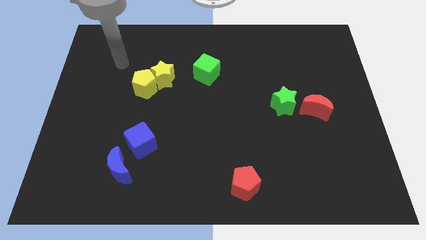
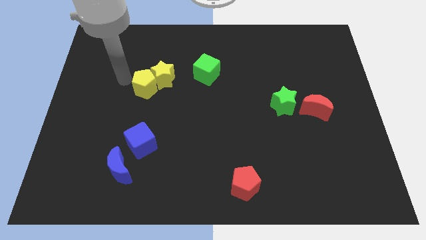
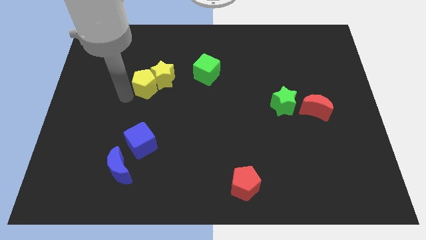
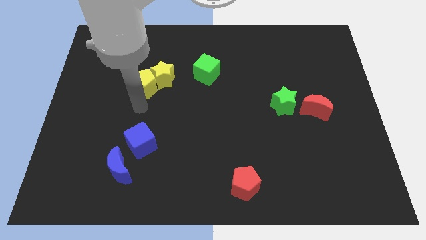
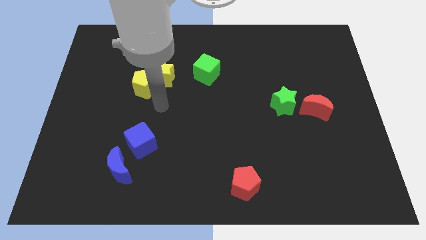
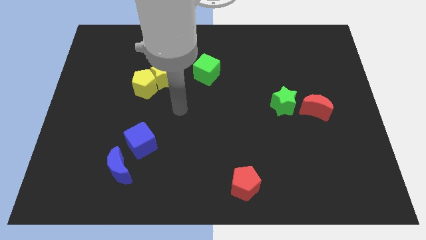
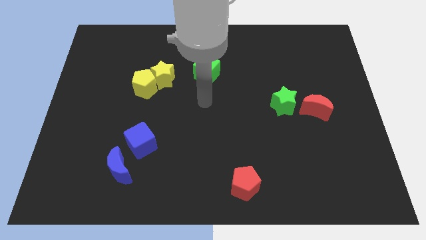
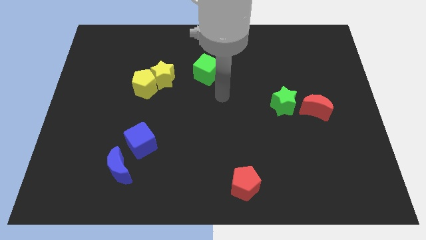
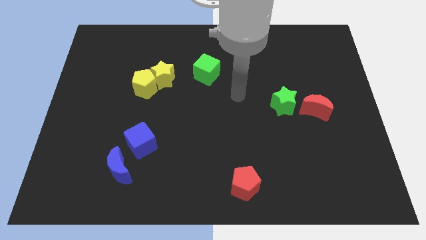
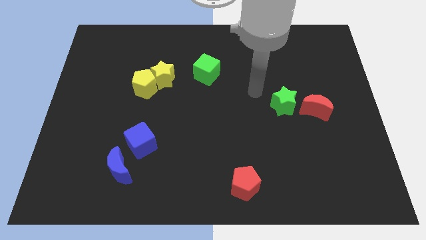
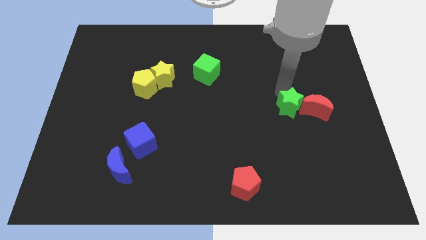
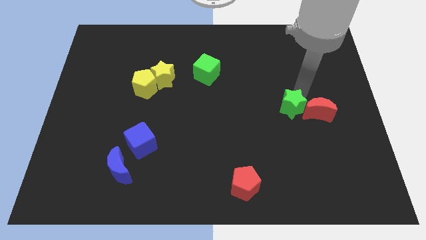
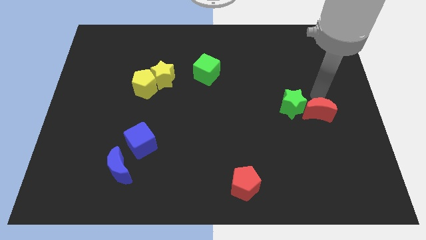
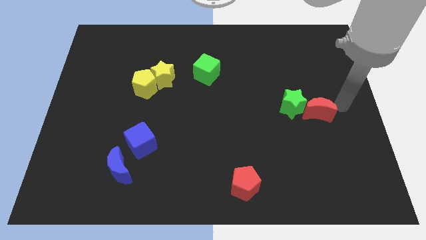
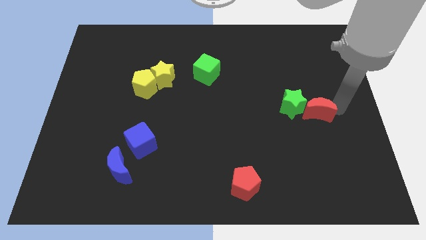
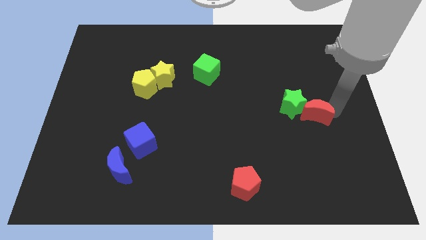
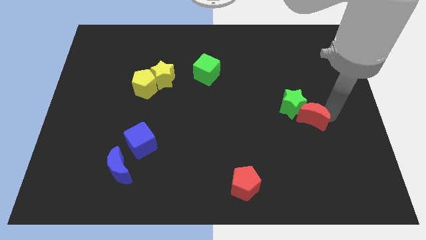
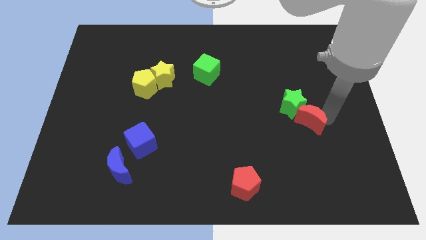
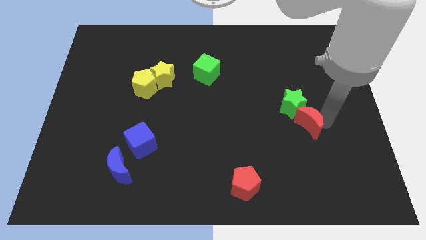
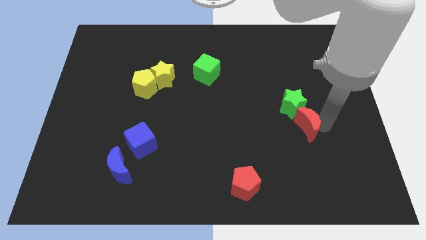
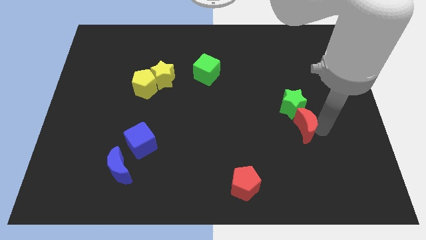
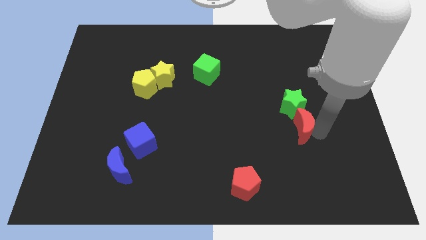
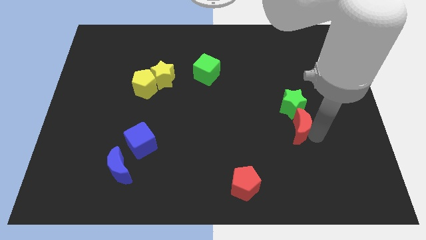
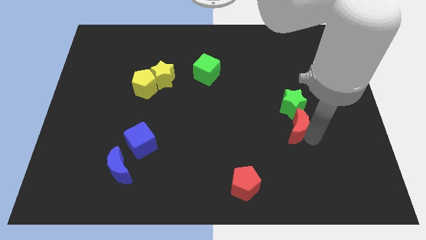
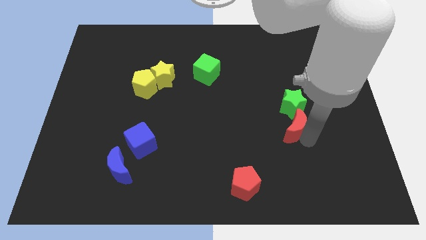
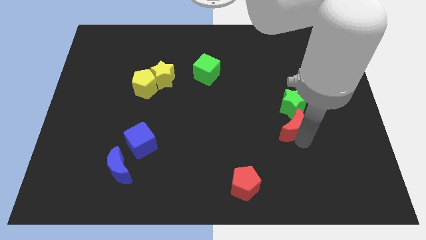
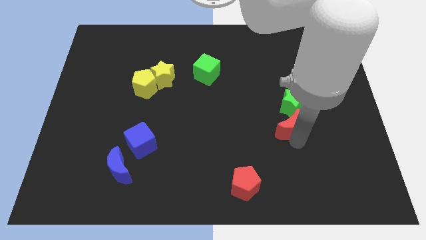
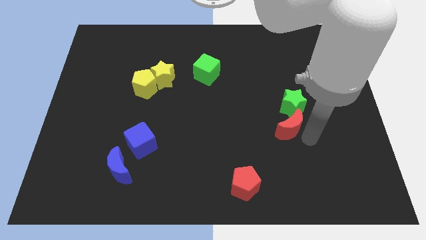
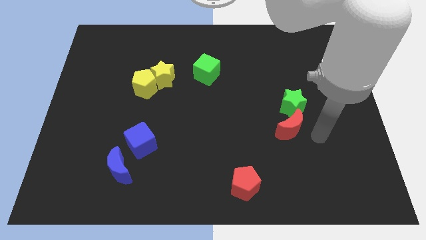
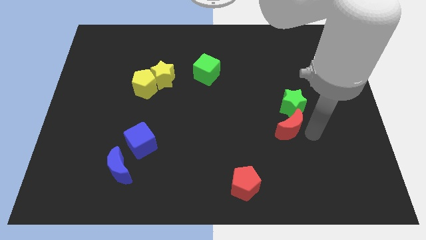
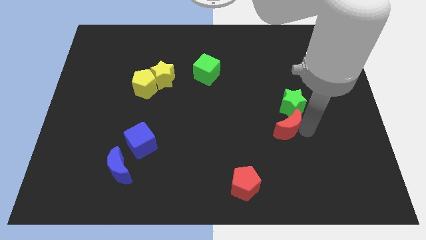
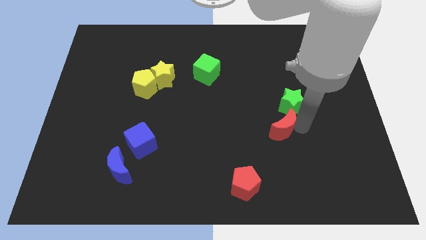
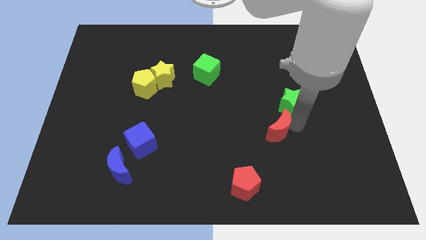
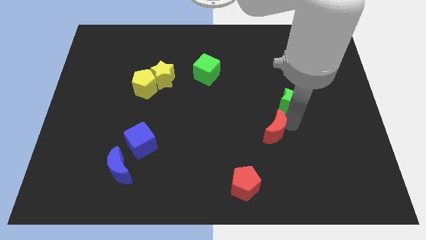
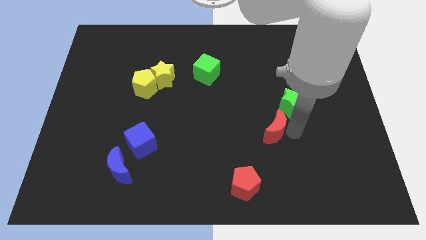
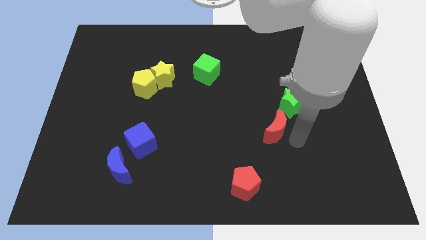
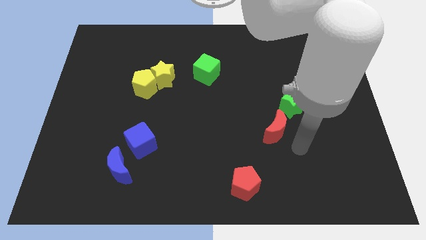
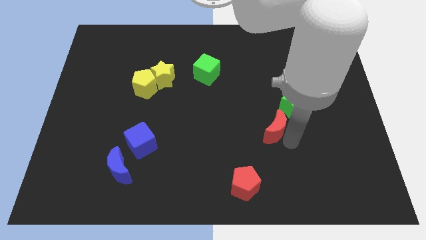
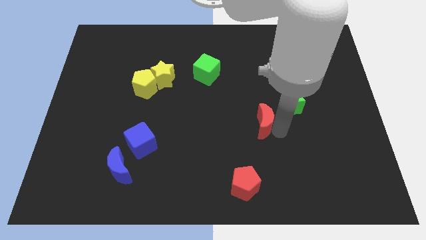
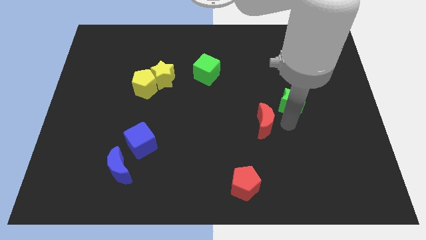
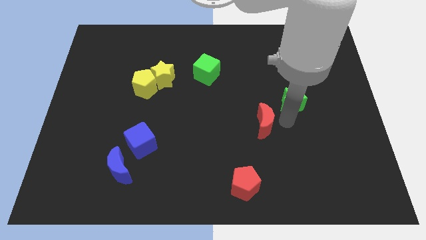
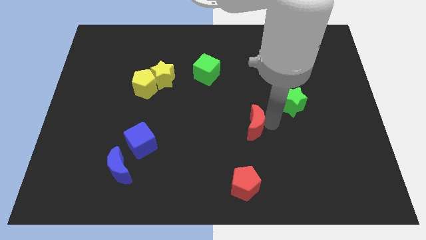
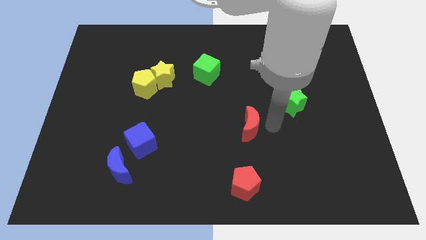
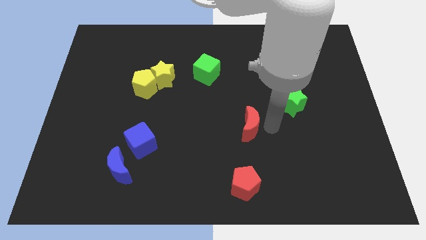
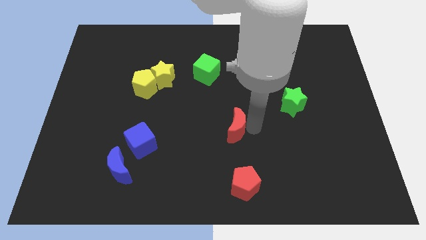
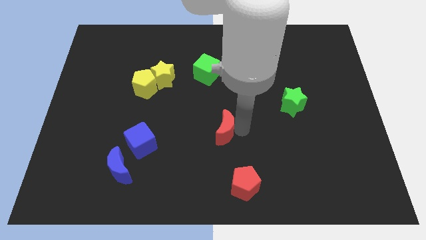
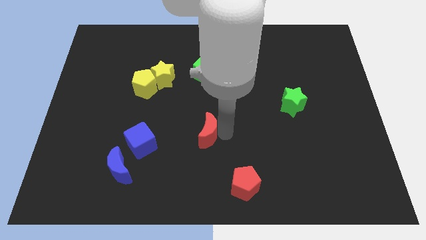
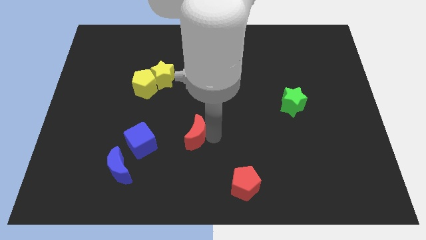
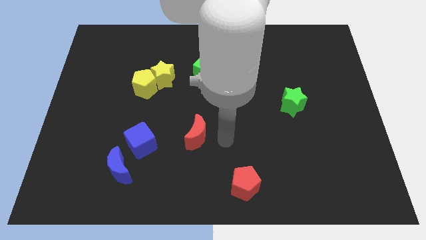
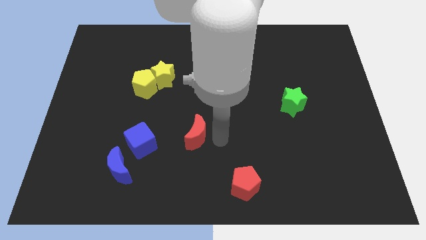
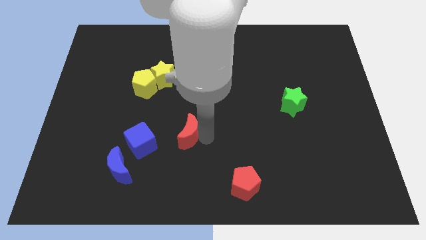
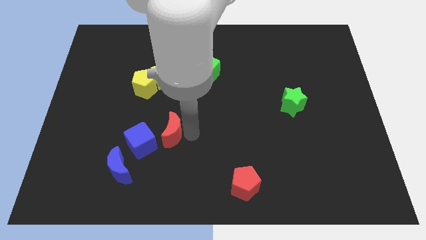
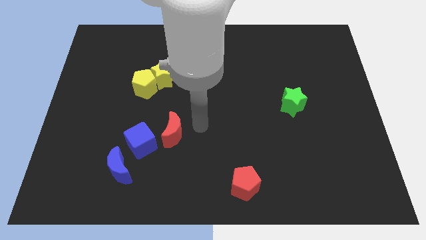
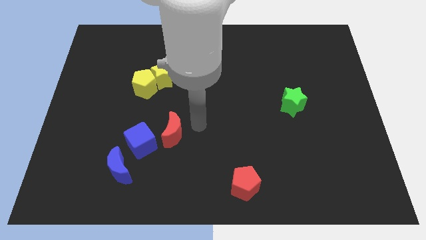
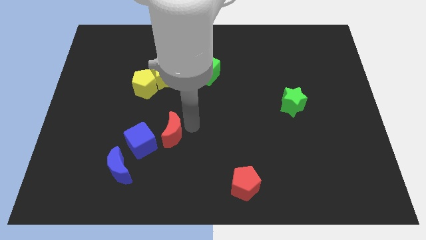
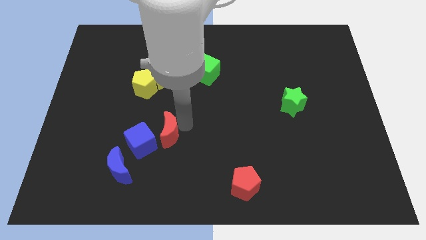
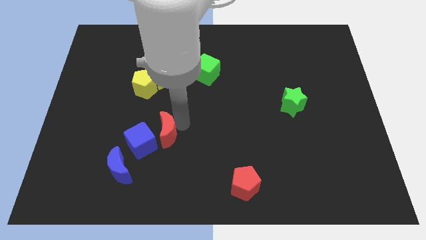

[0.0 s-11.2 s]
slide the red moon towards the blue cube
